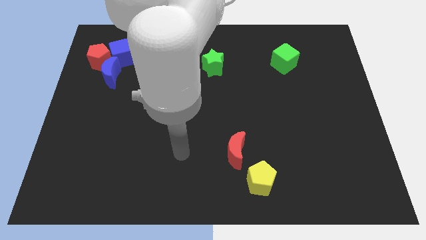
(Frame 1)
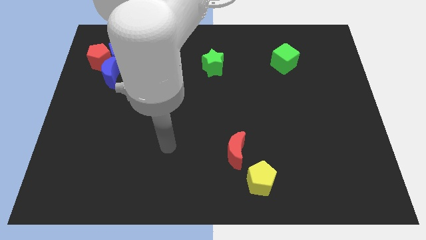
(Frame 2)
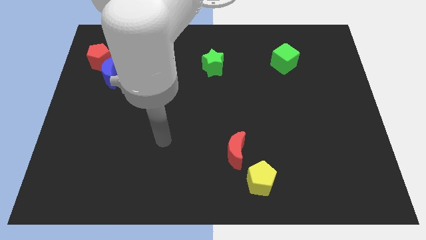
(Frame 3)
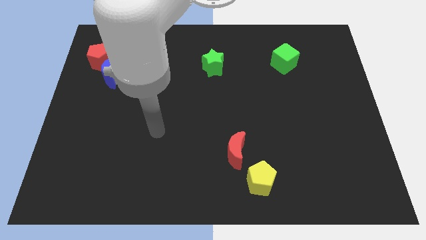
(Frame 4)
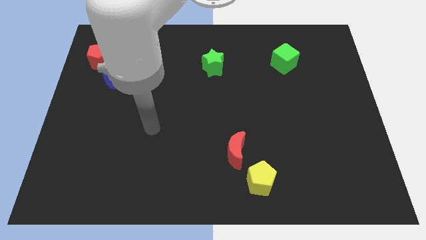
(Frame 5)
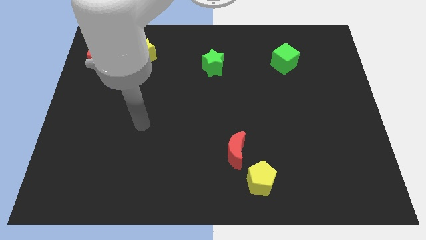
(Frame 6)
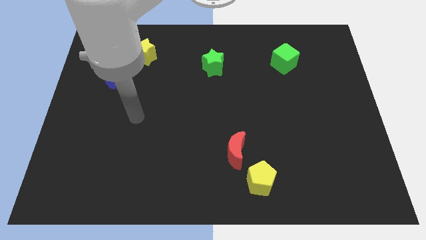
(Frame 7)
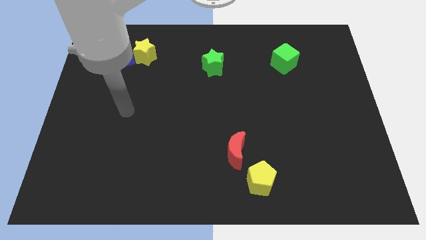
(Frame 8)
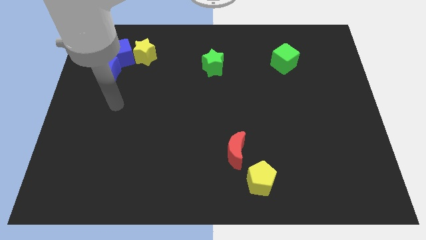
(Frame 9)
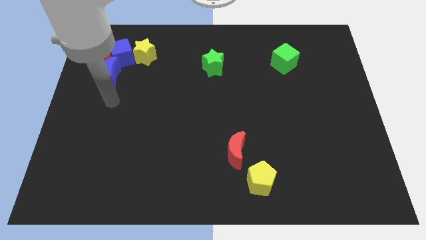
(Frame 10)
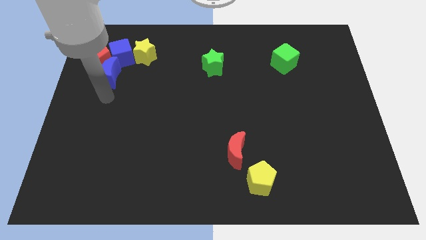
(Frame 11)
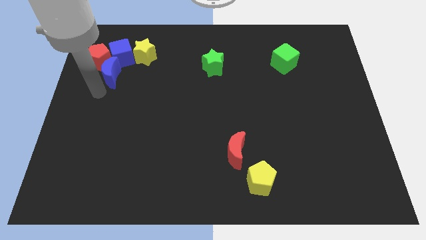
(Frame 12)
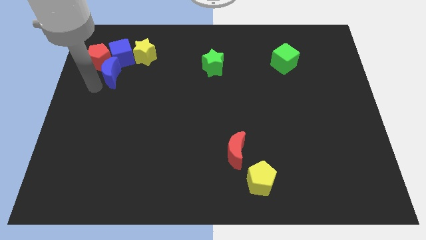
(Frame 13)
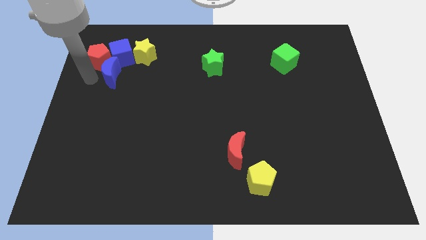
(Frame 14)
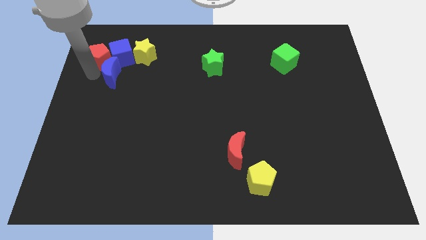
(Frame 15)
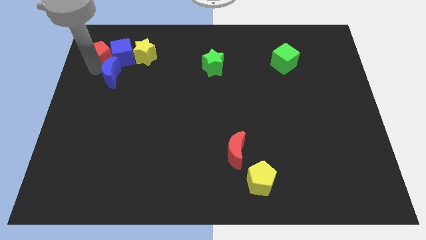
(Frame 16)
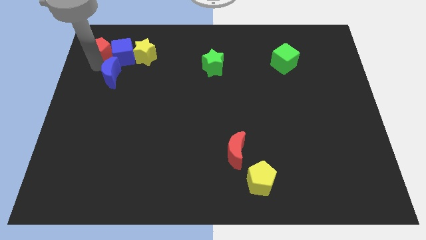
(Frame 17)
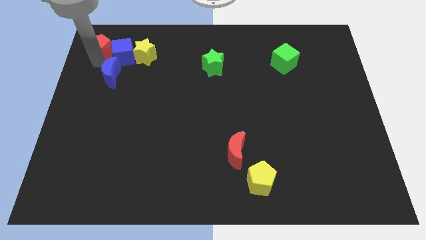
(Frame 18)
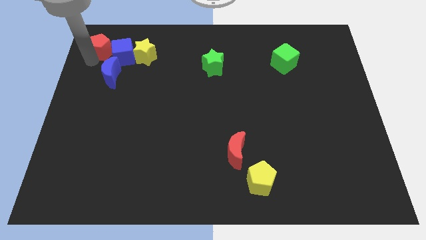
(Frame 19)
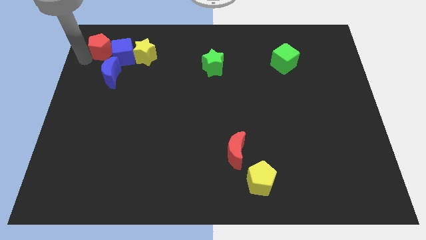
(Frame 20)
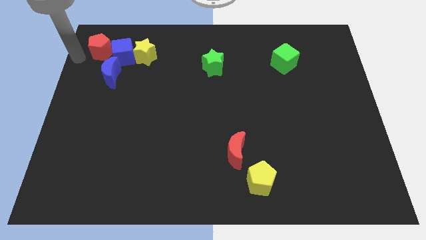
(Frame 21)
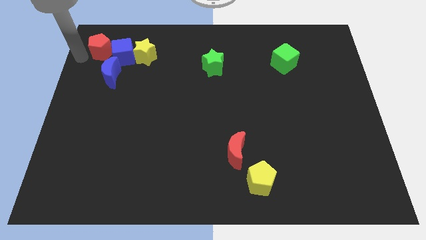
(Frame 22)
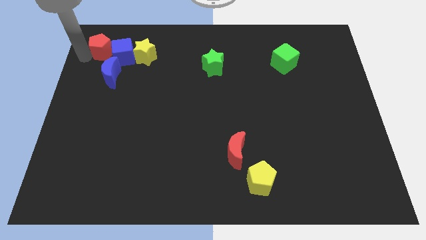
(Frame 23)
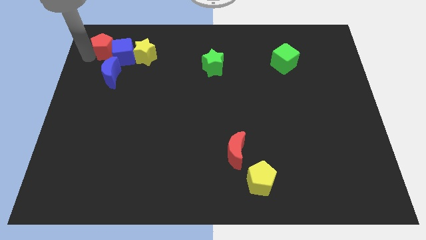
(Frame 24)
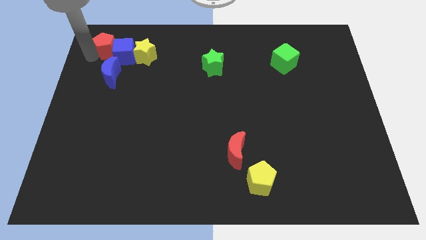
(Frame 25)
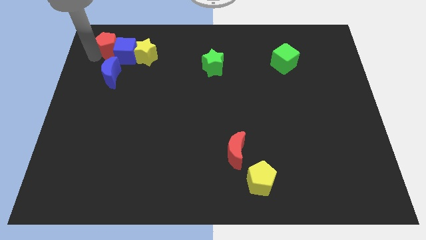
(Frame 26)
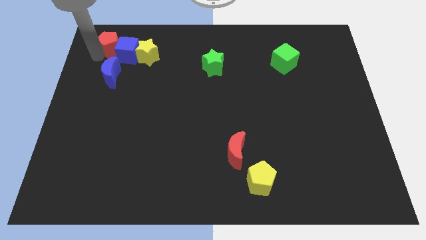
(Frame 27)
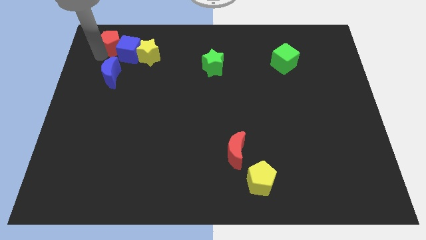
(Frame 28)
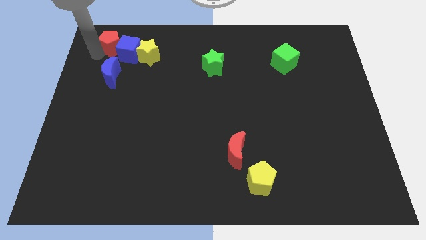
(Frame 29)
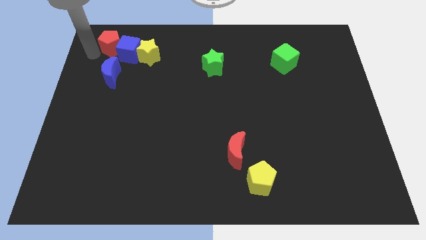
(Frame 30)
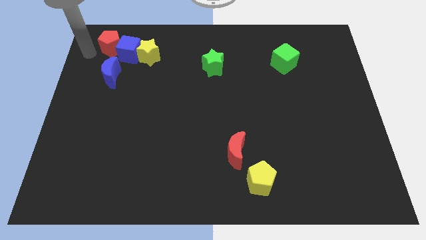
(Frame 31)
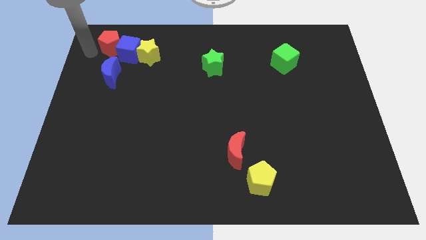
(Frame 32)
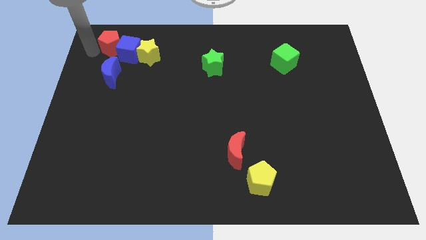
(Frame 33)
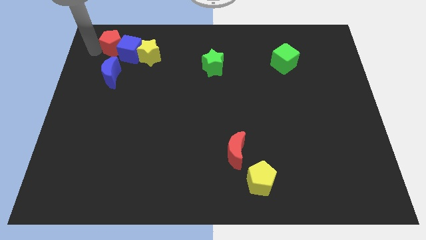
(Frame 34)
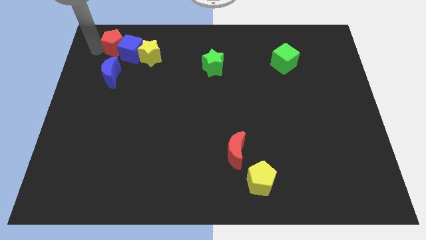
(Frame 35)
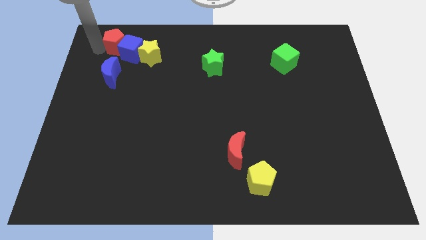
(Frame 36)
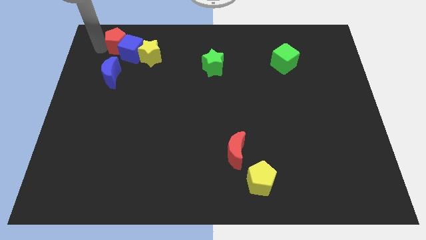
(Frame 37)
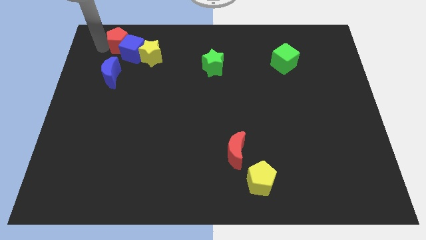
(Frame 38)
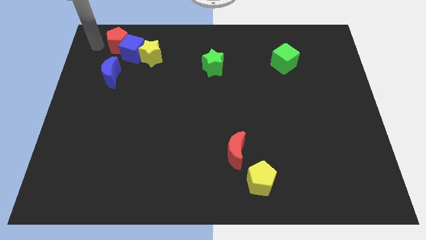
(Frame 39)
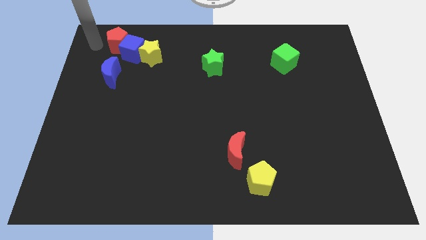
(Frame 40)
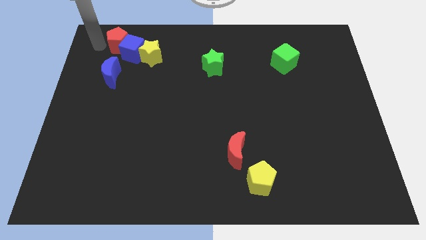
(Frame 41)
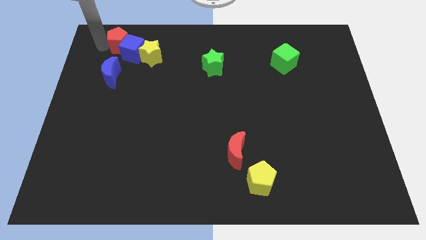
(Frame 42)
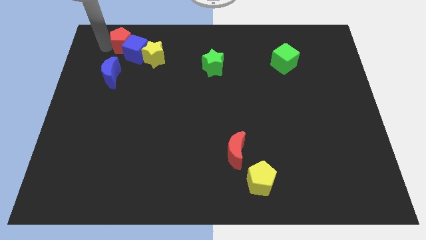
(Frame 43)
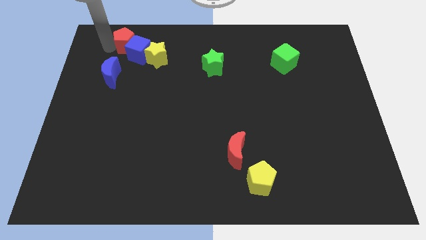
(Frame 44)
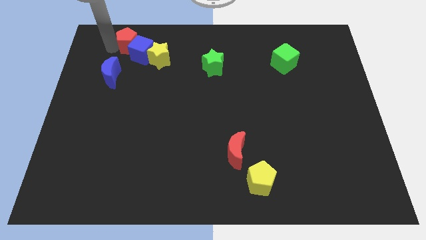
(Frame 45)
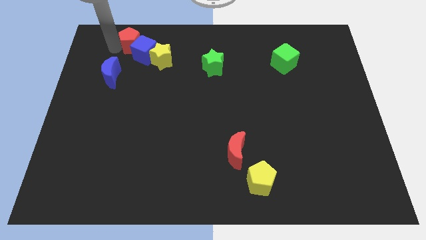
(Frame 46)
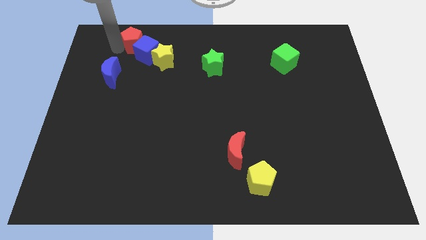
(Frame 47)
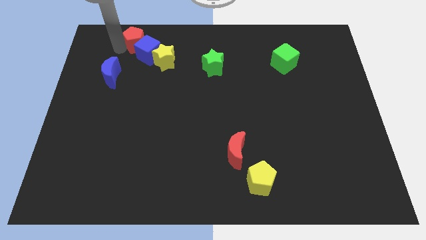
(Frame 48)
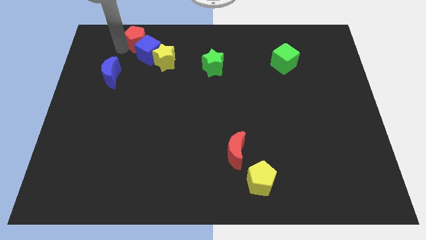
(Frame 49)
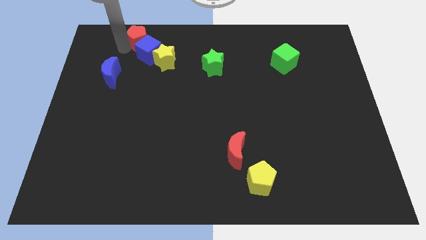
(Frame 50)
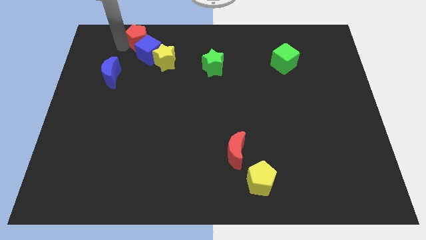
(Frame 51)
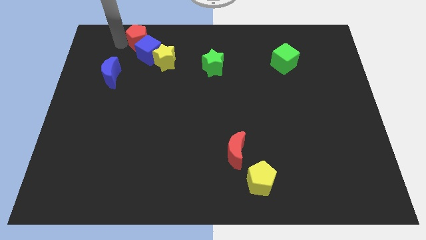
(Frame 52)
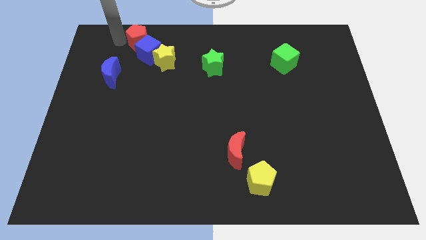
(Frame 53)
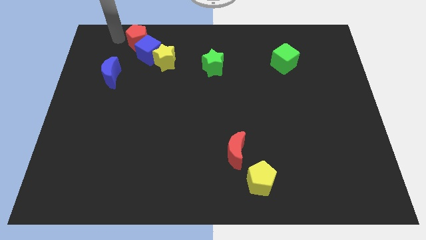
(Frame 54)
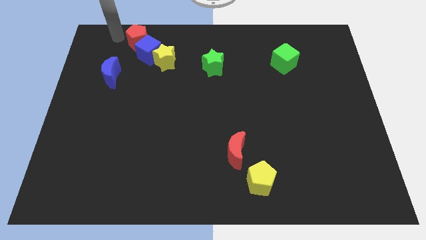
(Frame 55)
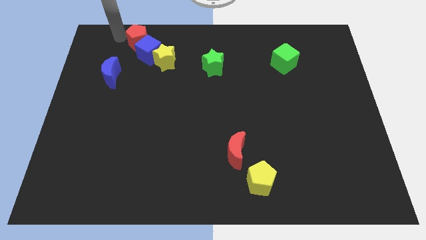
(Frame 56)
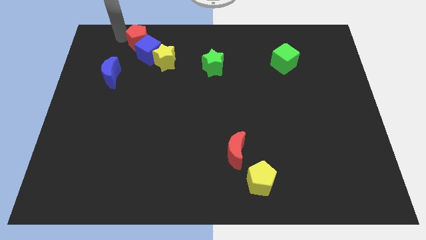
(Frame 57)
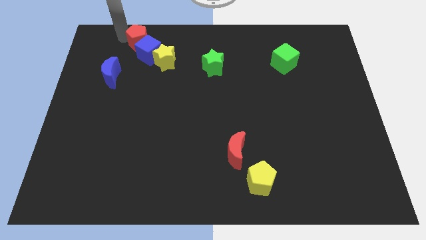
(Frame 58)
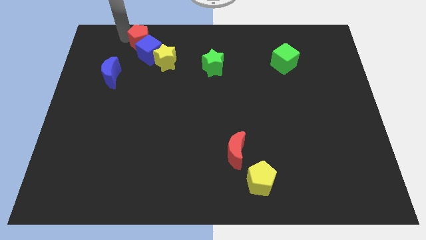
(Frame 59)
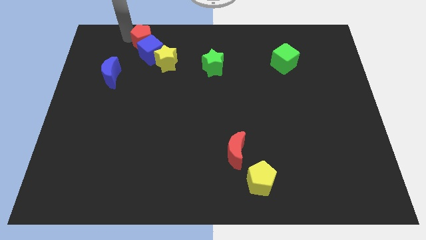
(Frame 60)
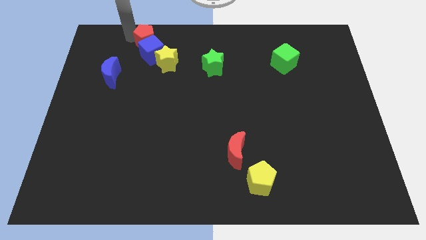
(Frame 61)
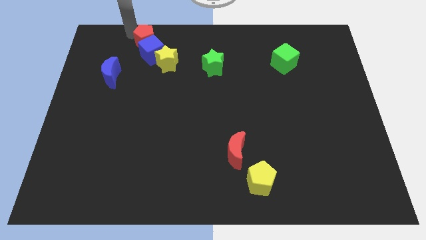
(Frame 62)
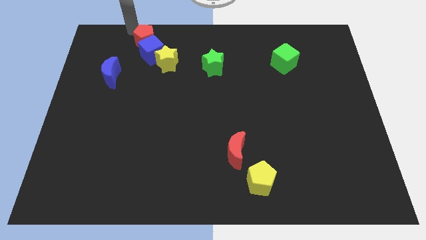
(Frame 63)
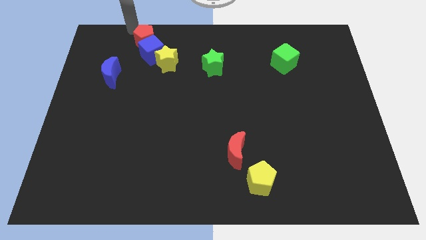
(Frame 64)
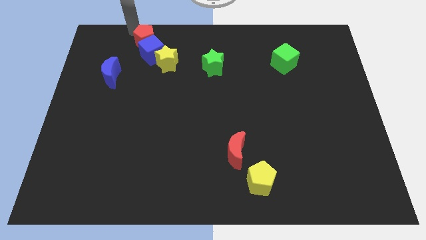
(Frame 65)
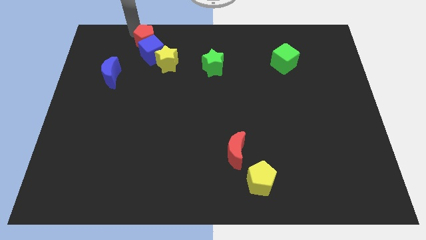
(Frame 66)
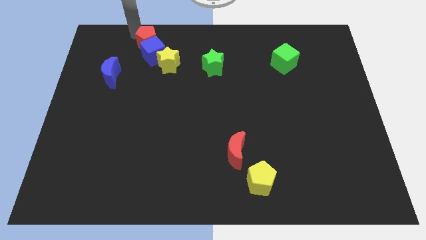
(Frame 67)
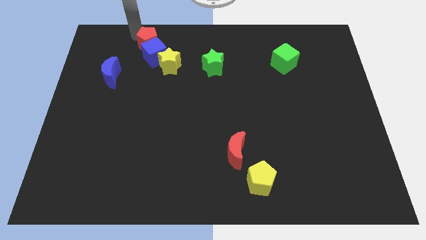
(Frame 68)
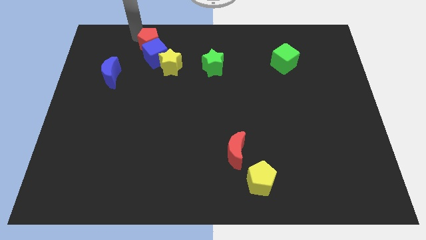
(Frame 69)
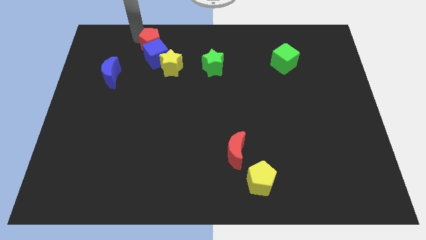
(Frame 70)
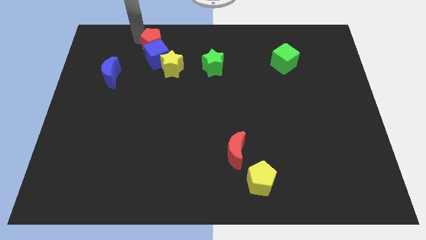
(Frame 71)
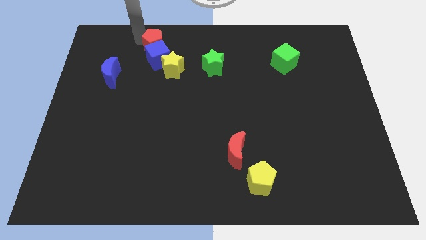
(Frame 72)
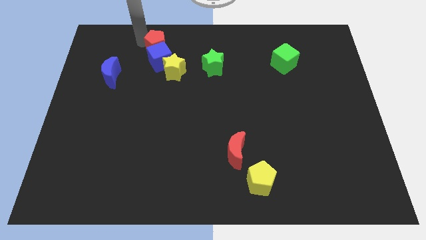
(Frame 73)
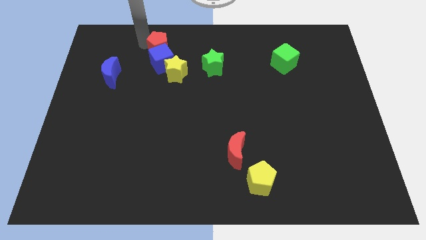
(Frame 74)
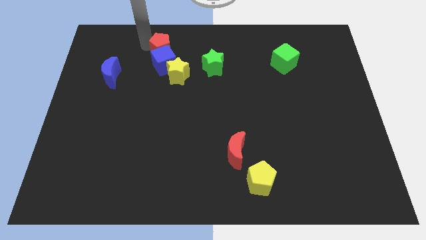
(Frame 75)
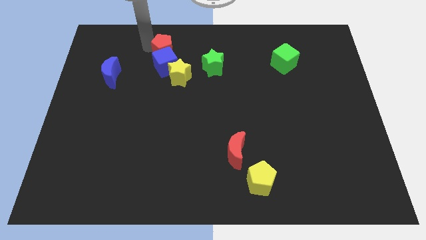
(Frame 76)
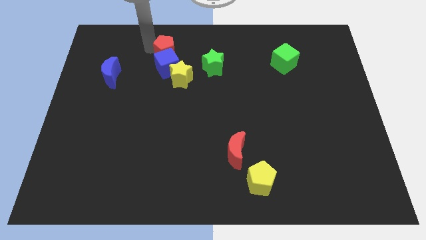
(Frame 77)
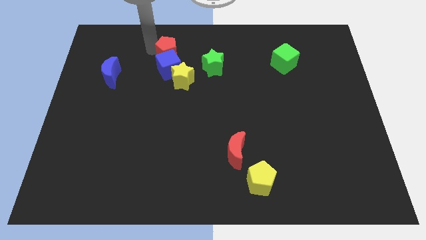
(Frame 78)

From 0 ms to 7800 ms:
slide the red pentagon just left of the green star
